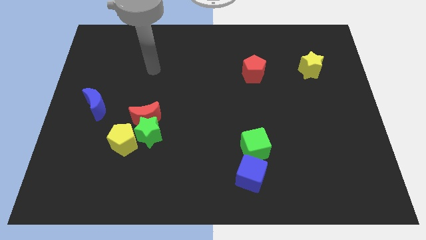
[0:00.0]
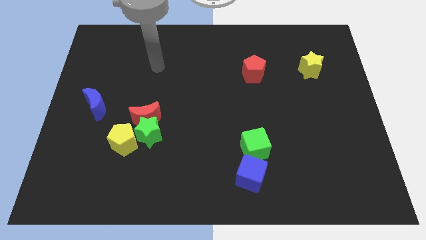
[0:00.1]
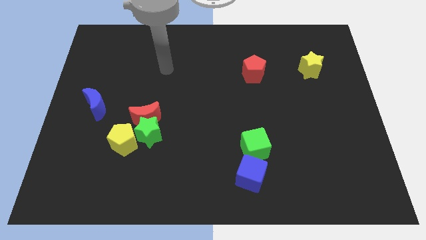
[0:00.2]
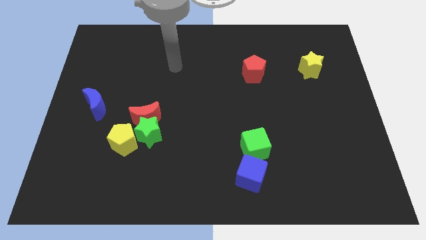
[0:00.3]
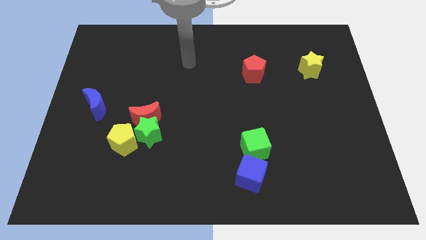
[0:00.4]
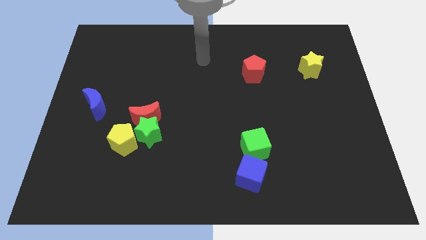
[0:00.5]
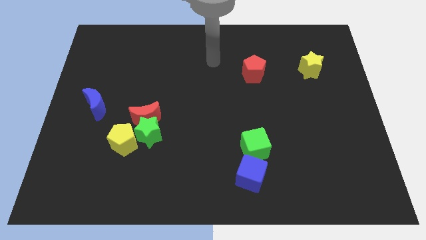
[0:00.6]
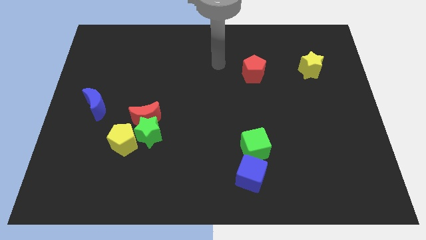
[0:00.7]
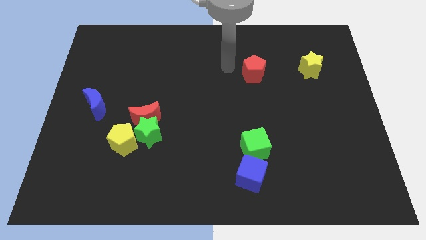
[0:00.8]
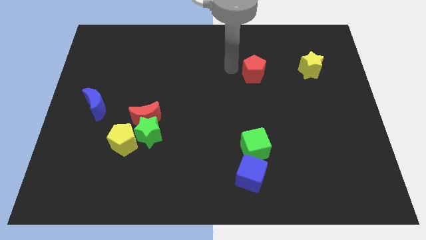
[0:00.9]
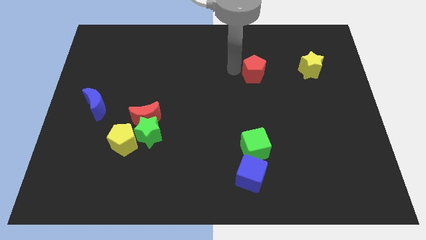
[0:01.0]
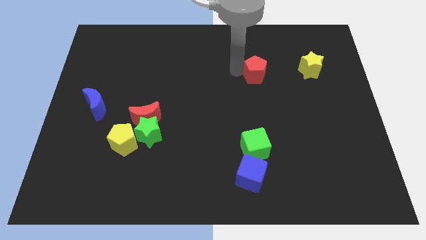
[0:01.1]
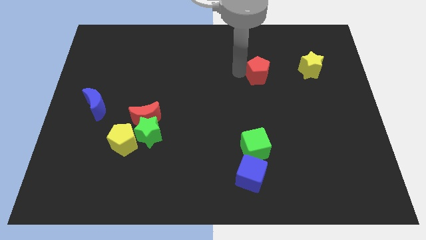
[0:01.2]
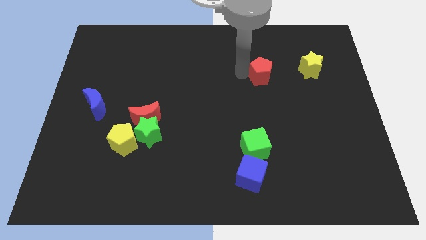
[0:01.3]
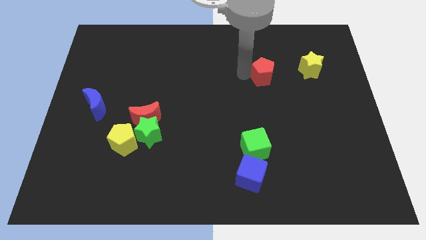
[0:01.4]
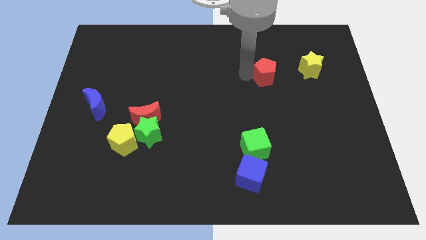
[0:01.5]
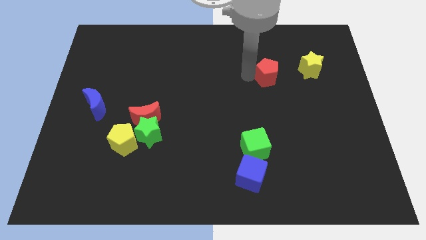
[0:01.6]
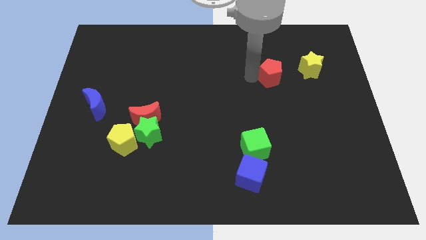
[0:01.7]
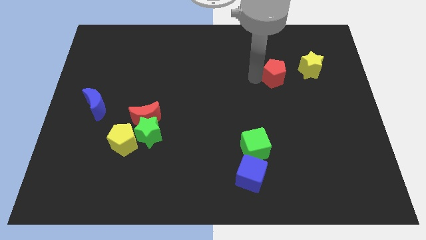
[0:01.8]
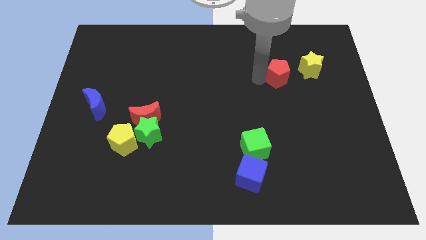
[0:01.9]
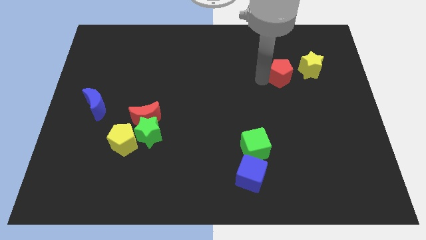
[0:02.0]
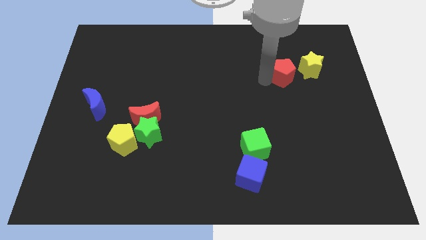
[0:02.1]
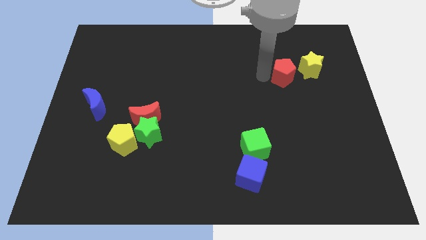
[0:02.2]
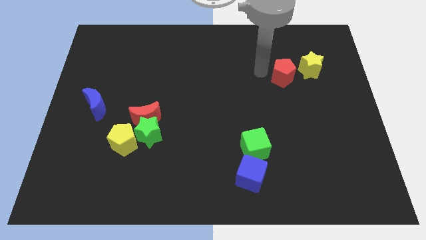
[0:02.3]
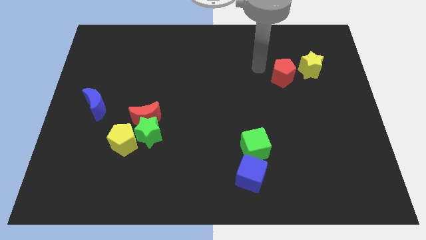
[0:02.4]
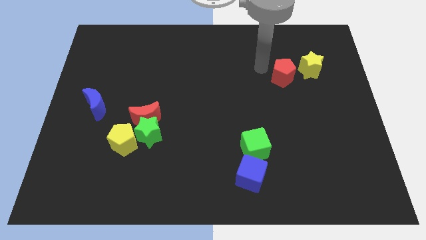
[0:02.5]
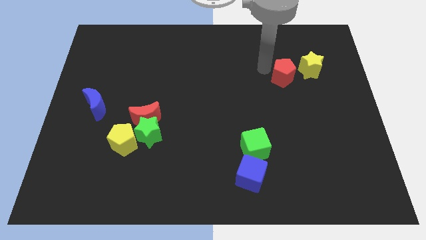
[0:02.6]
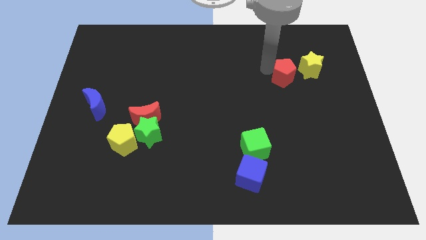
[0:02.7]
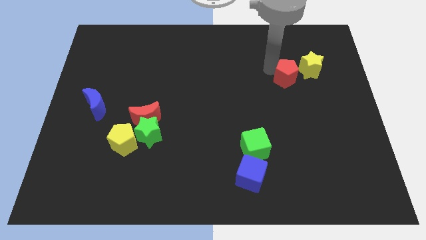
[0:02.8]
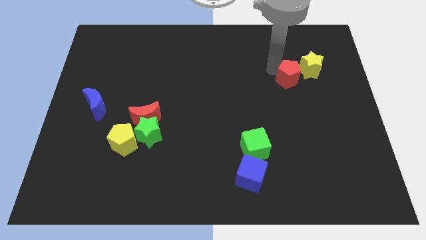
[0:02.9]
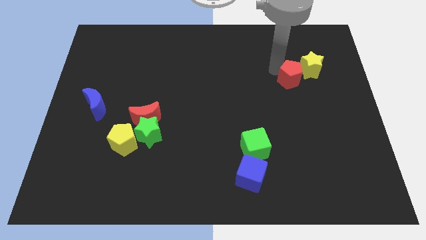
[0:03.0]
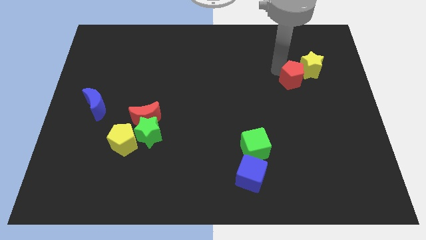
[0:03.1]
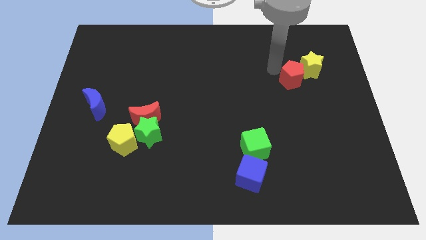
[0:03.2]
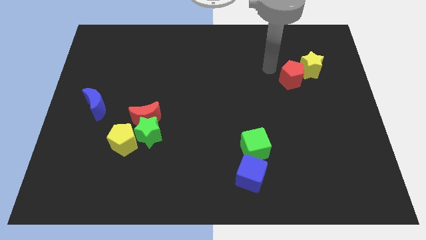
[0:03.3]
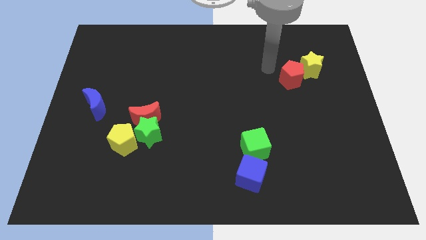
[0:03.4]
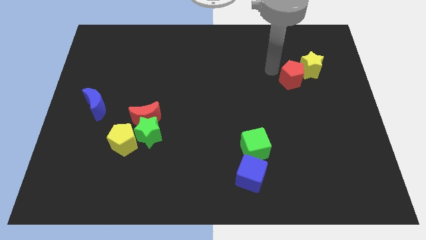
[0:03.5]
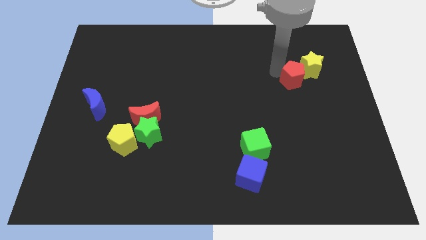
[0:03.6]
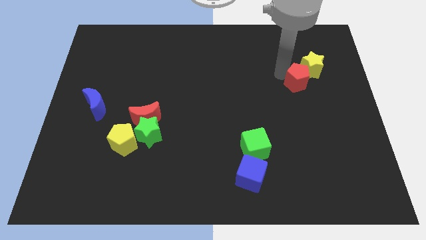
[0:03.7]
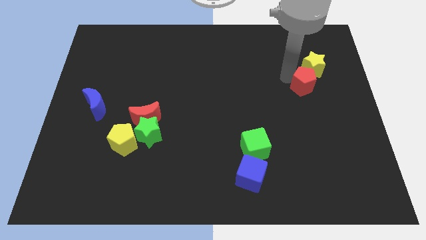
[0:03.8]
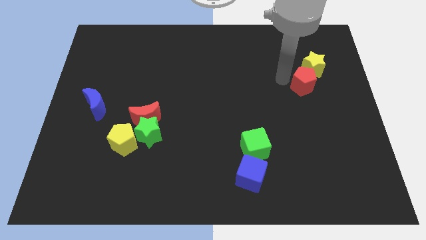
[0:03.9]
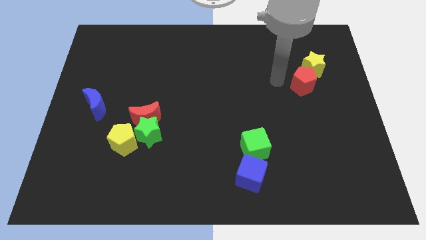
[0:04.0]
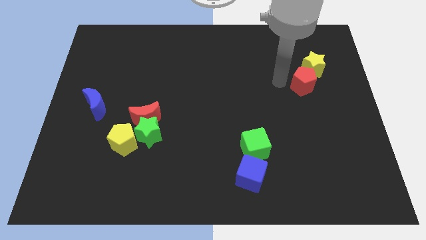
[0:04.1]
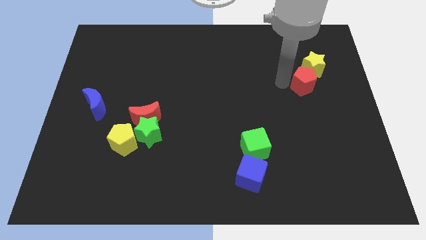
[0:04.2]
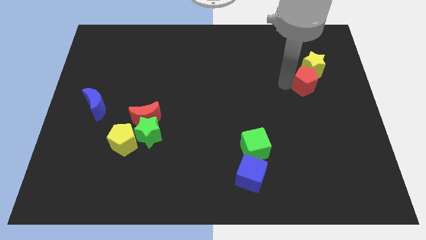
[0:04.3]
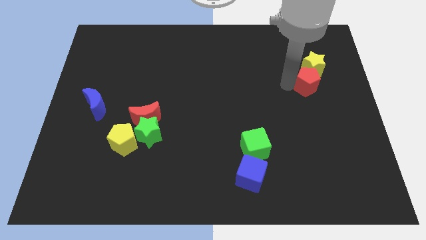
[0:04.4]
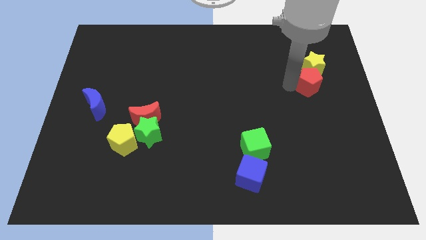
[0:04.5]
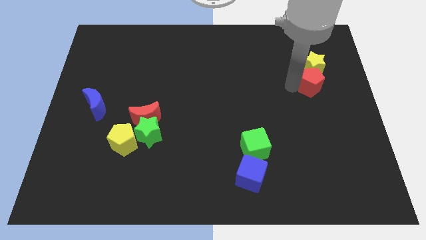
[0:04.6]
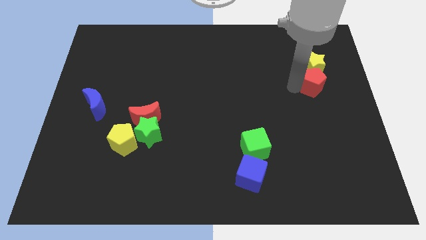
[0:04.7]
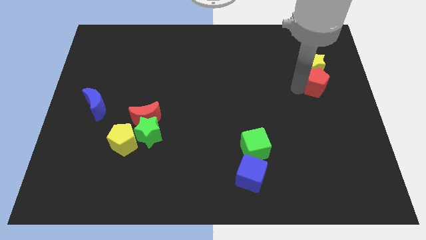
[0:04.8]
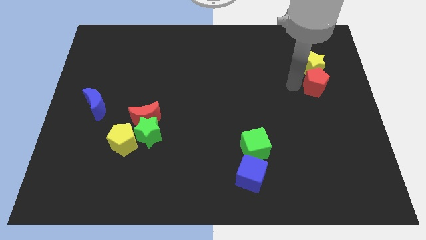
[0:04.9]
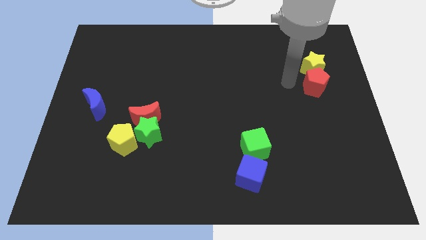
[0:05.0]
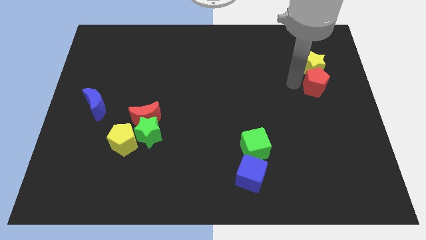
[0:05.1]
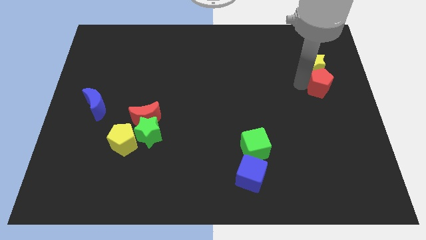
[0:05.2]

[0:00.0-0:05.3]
put the red pentagon to the right side of the board

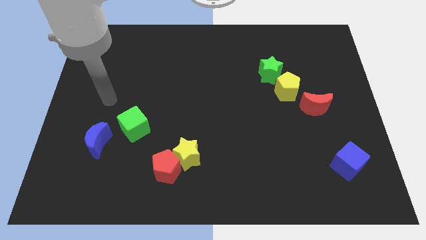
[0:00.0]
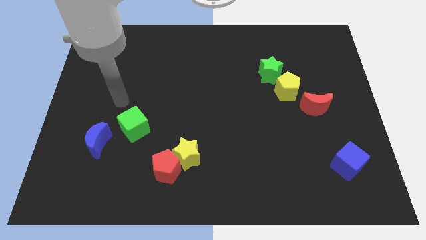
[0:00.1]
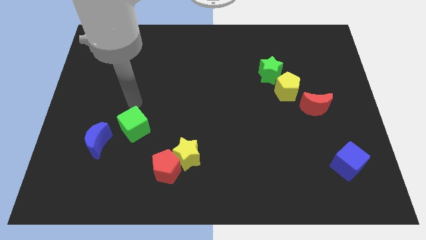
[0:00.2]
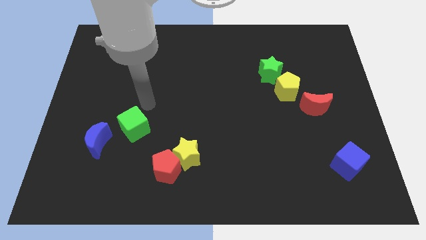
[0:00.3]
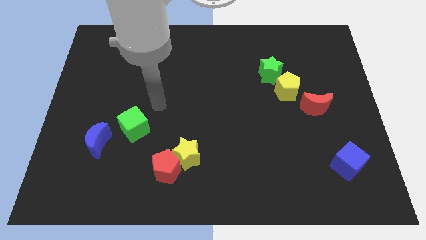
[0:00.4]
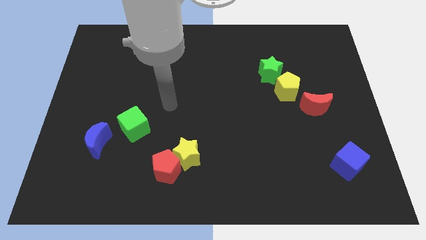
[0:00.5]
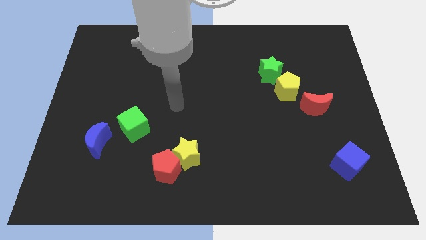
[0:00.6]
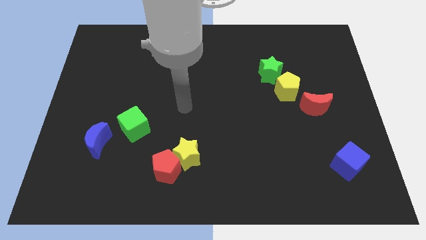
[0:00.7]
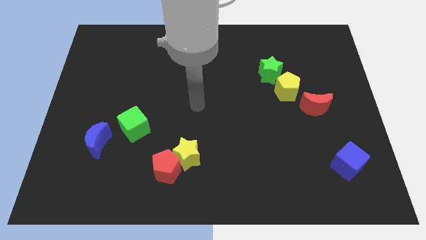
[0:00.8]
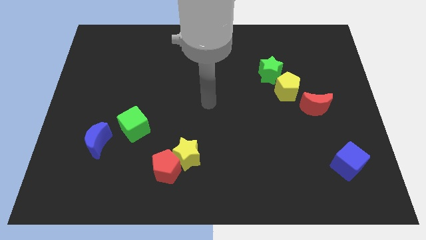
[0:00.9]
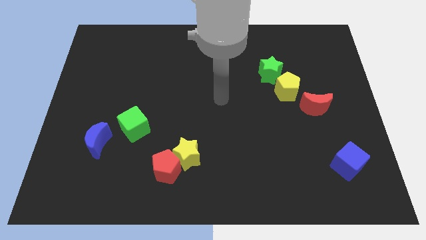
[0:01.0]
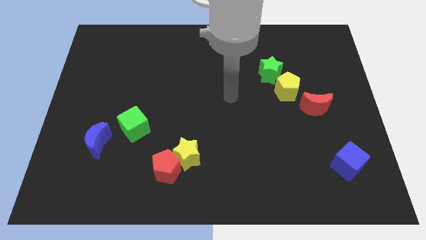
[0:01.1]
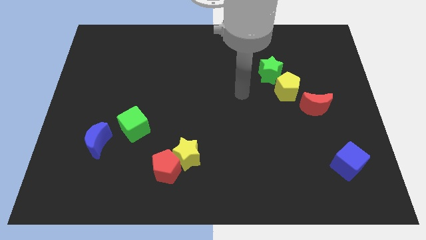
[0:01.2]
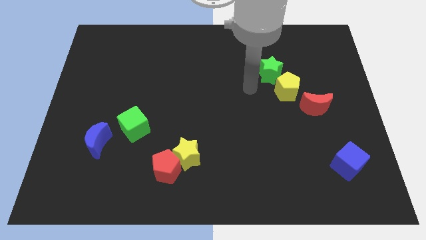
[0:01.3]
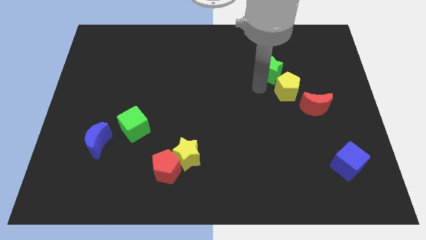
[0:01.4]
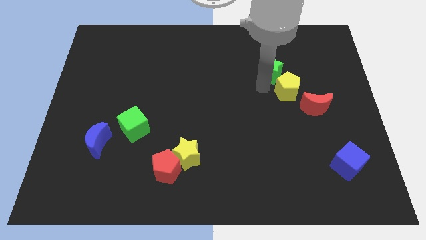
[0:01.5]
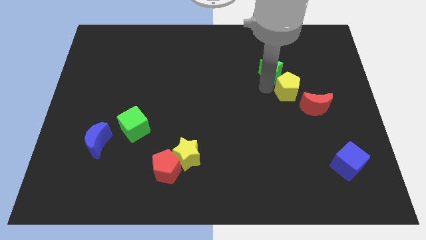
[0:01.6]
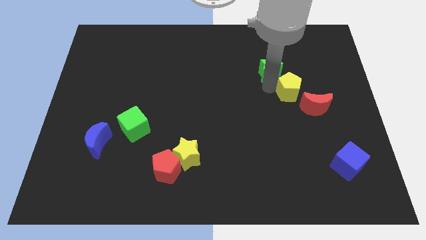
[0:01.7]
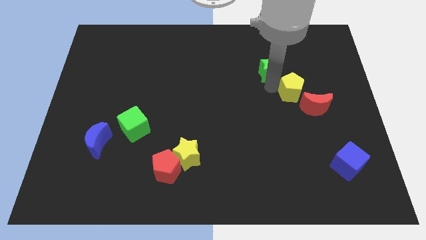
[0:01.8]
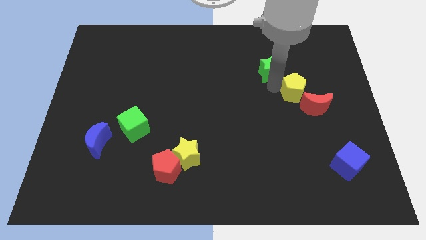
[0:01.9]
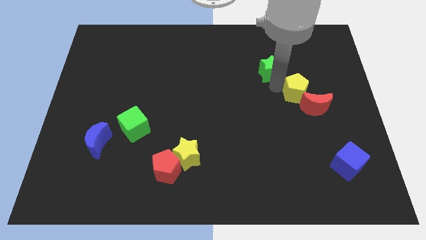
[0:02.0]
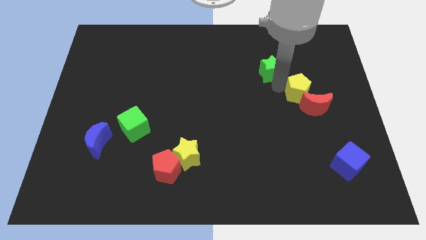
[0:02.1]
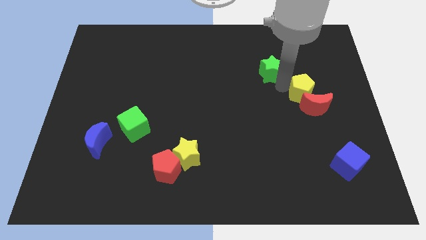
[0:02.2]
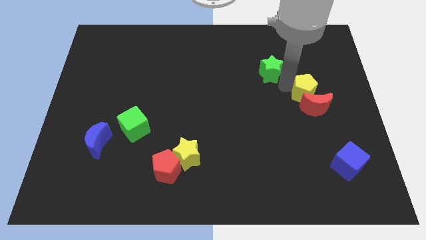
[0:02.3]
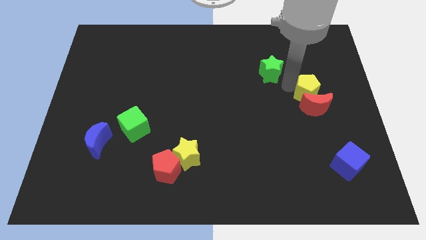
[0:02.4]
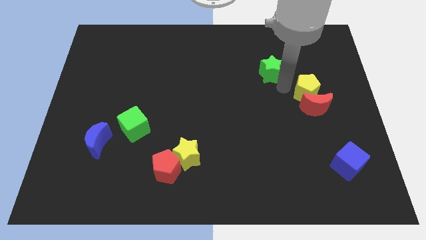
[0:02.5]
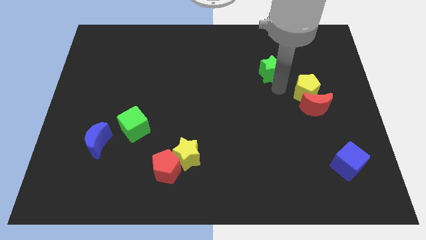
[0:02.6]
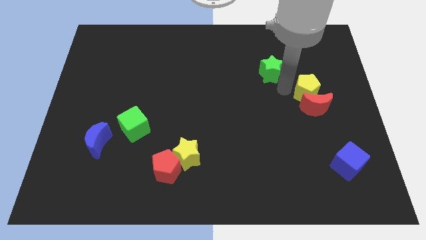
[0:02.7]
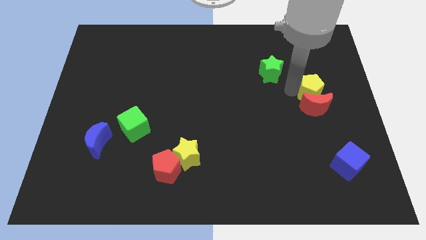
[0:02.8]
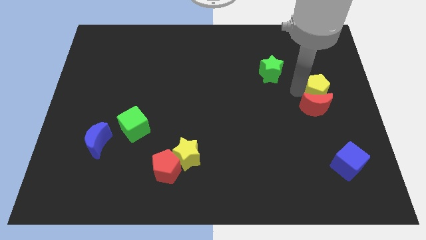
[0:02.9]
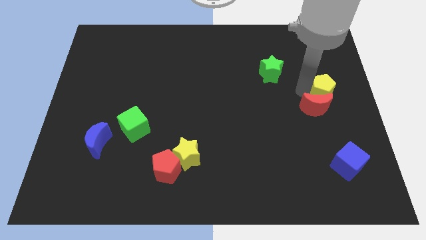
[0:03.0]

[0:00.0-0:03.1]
push the yellow pentagon to the center right
